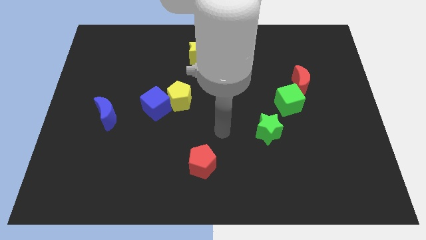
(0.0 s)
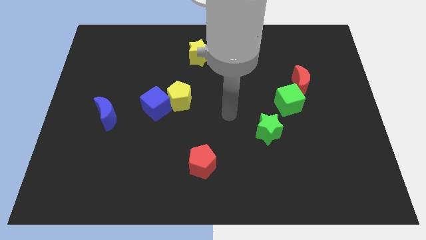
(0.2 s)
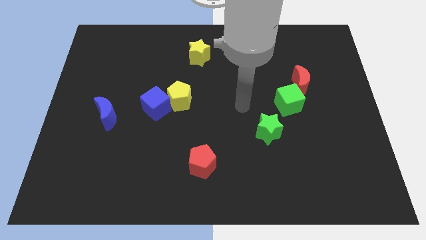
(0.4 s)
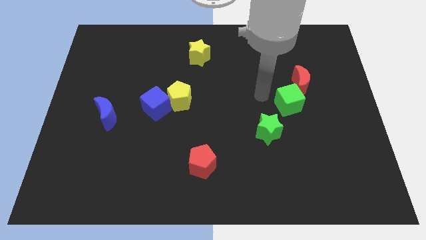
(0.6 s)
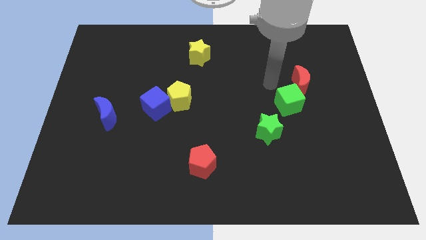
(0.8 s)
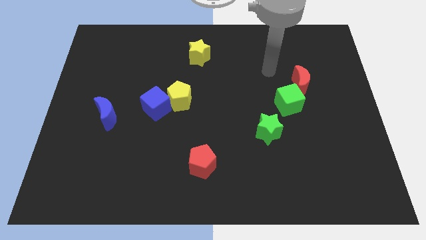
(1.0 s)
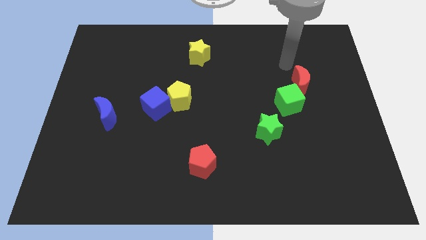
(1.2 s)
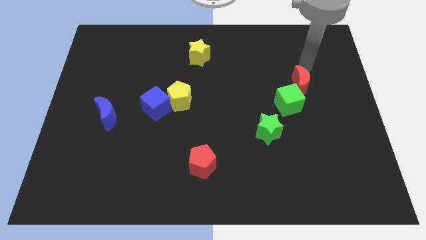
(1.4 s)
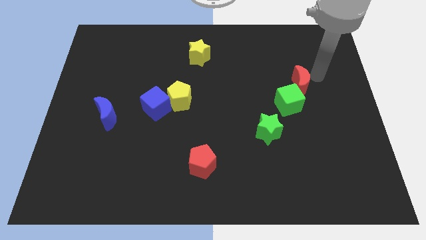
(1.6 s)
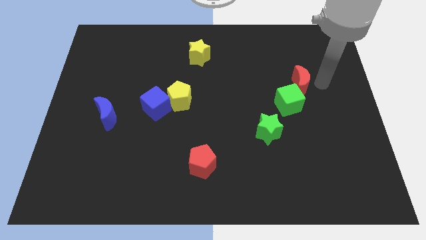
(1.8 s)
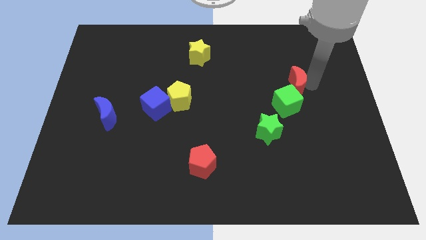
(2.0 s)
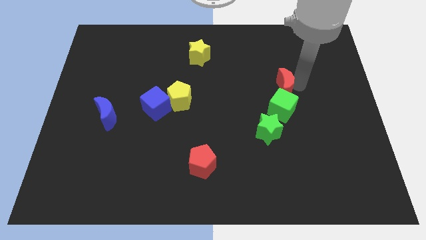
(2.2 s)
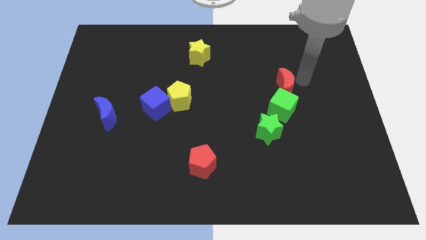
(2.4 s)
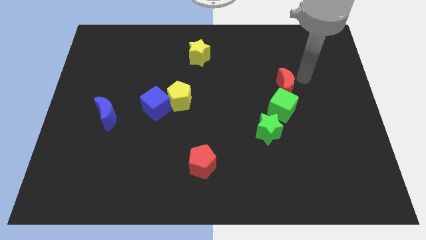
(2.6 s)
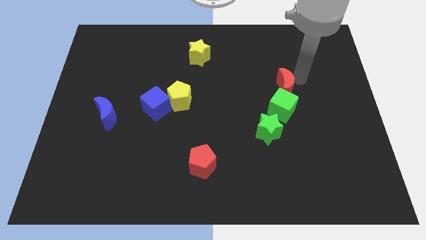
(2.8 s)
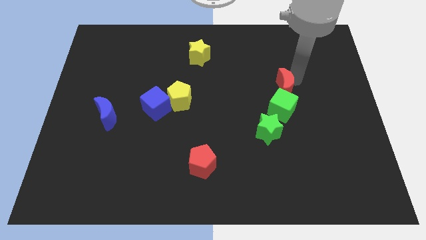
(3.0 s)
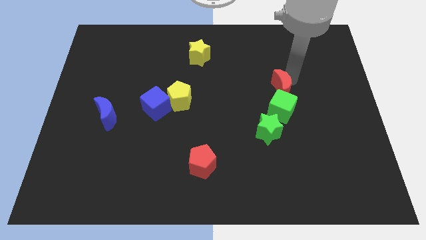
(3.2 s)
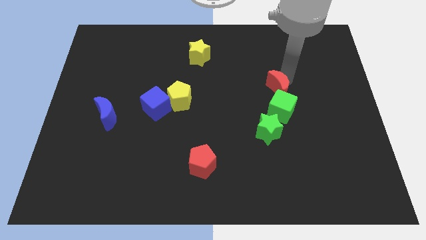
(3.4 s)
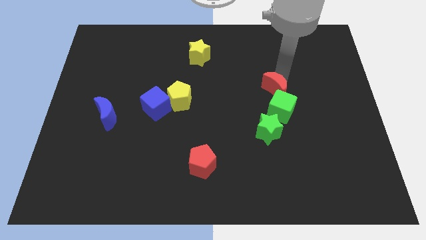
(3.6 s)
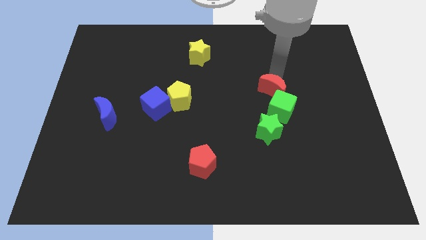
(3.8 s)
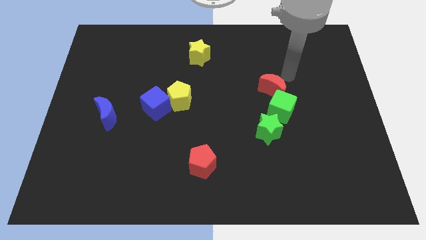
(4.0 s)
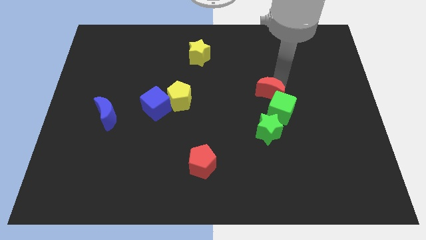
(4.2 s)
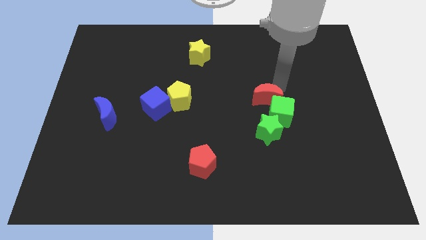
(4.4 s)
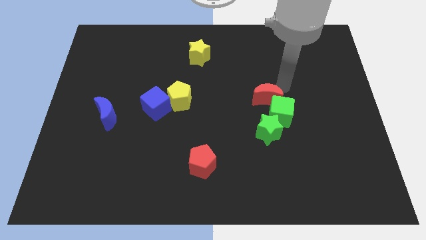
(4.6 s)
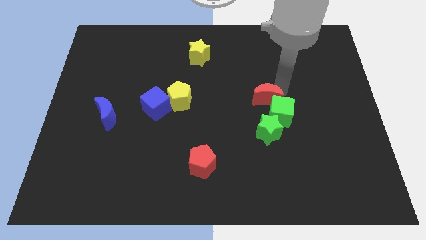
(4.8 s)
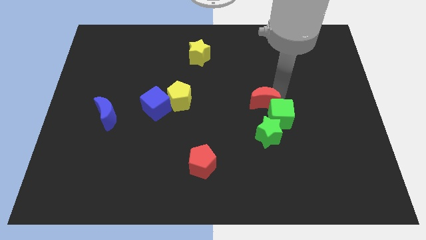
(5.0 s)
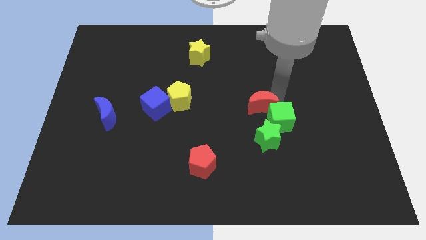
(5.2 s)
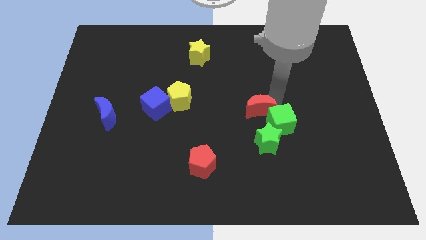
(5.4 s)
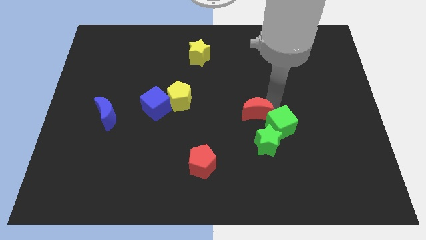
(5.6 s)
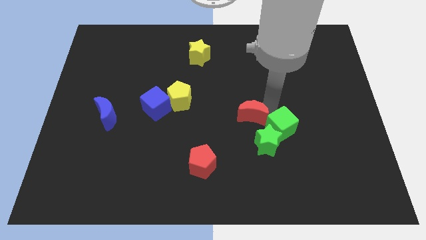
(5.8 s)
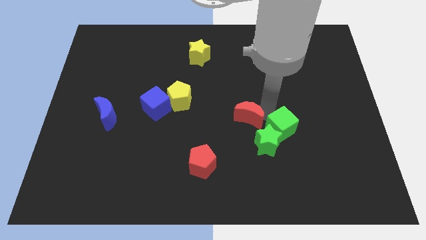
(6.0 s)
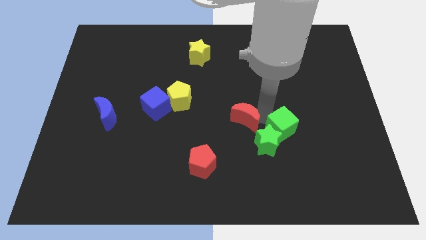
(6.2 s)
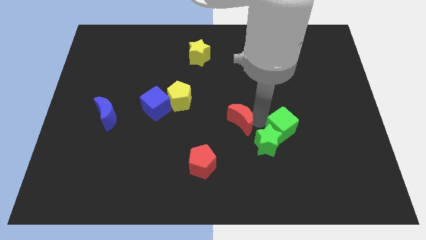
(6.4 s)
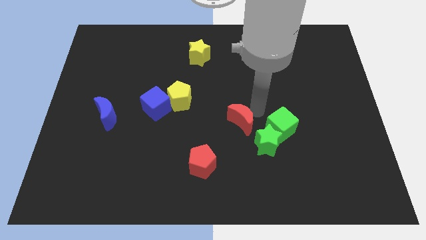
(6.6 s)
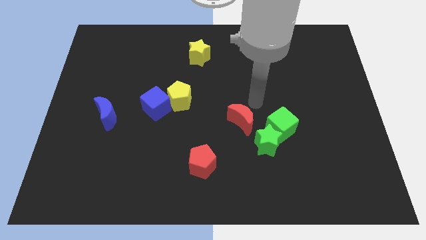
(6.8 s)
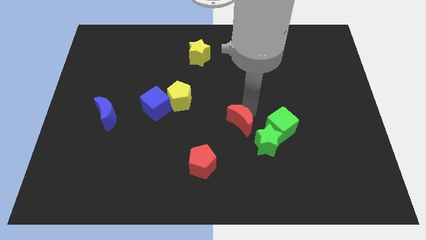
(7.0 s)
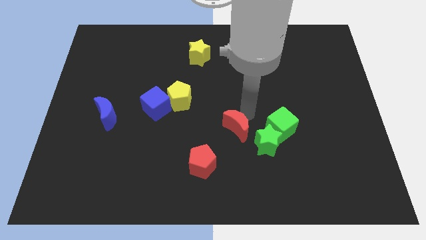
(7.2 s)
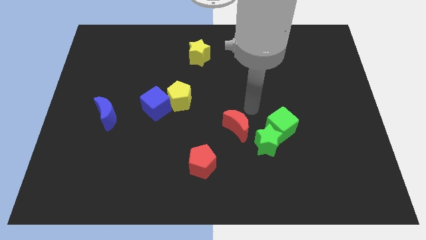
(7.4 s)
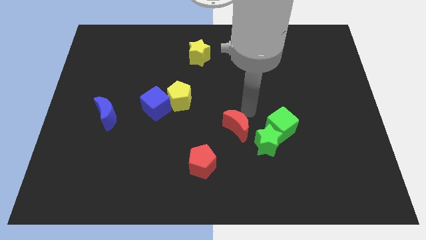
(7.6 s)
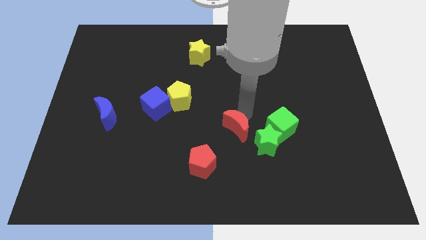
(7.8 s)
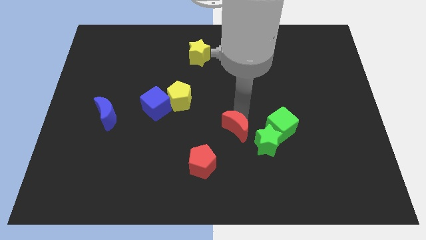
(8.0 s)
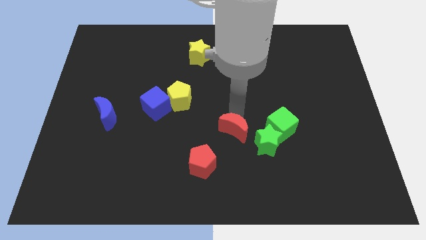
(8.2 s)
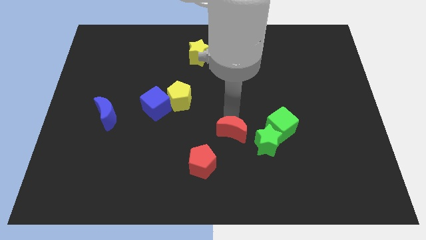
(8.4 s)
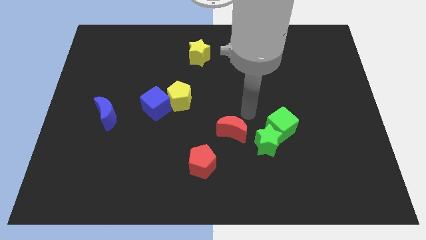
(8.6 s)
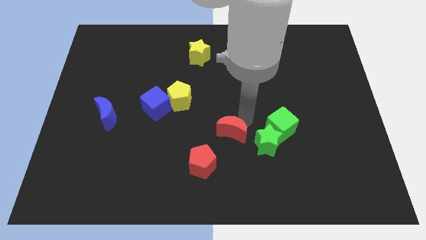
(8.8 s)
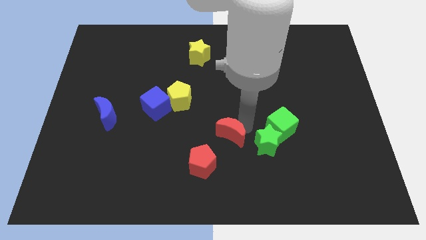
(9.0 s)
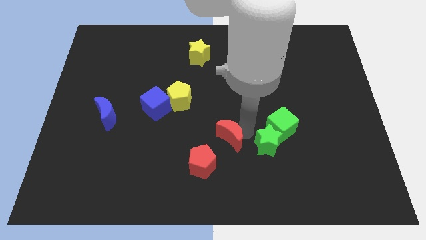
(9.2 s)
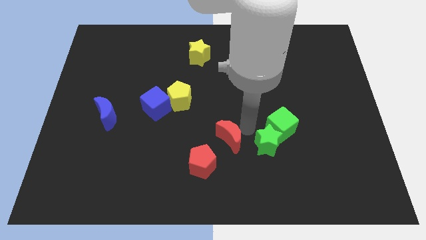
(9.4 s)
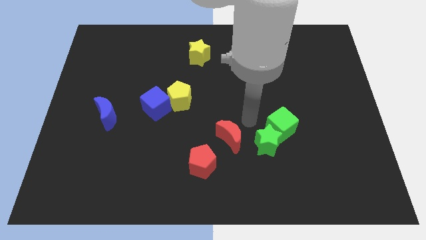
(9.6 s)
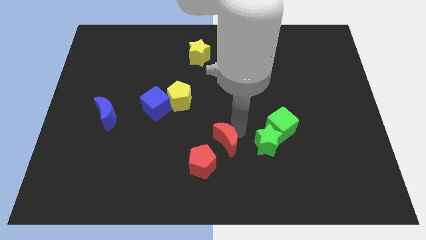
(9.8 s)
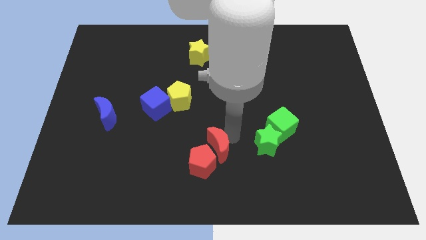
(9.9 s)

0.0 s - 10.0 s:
slide the red moon next to the red pentagon

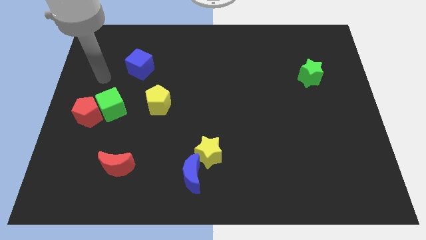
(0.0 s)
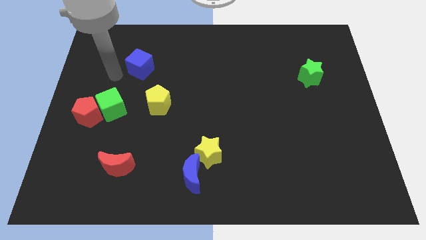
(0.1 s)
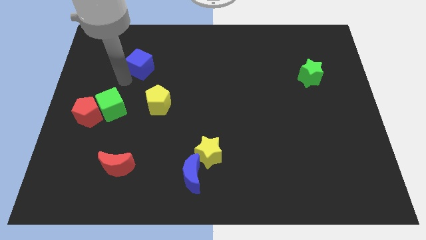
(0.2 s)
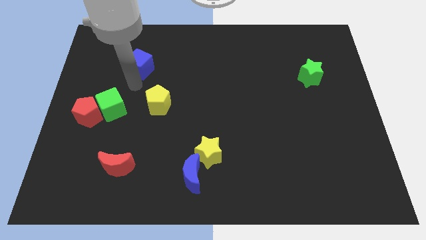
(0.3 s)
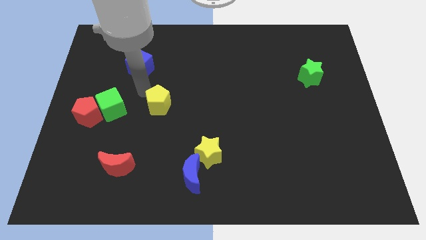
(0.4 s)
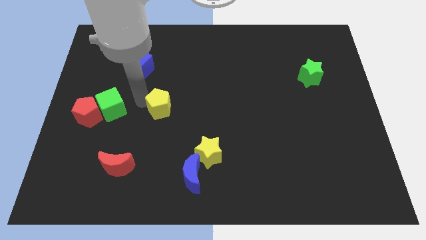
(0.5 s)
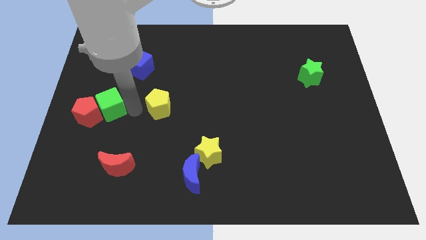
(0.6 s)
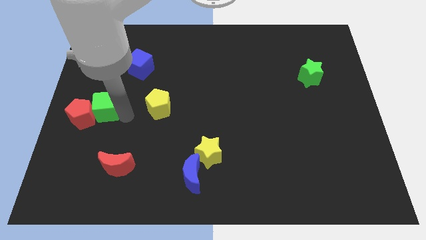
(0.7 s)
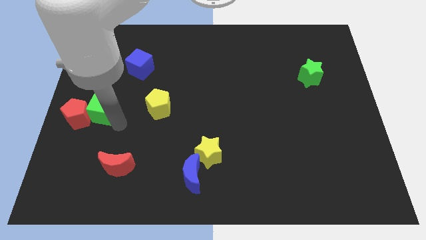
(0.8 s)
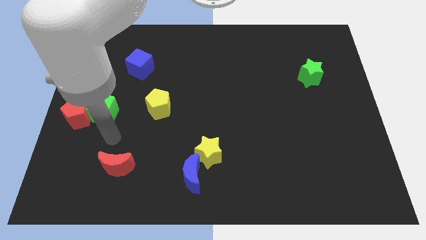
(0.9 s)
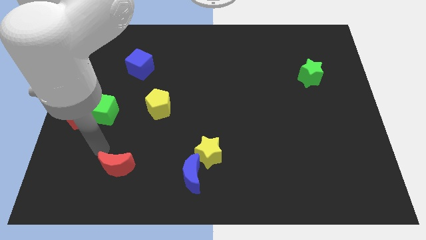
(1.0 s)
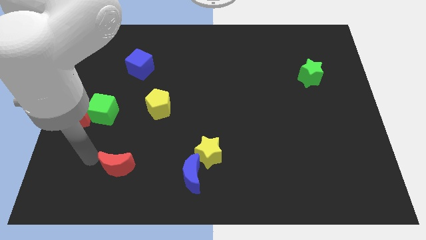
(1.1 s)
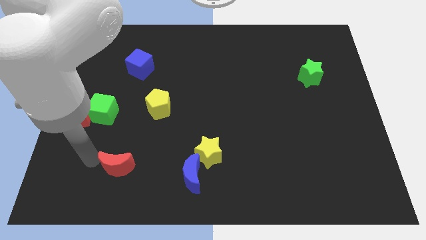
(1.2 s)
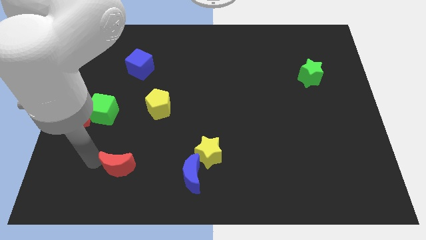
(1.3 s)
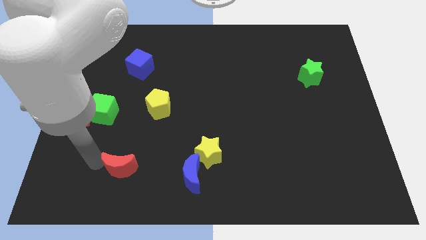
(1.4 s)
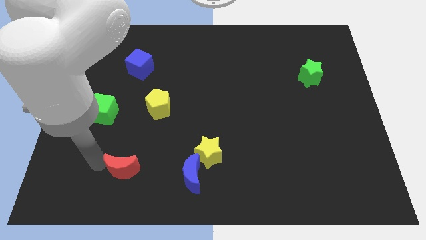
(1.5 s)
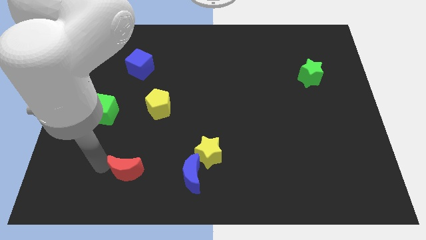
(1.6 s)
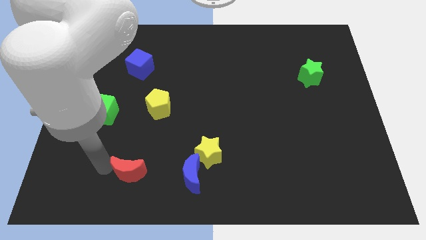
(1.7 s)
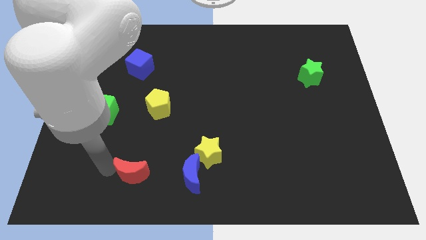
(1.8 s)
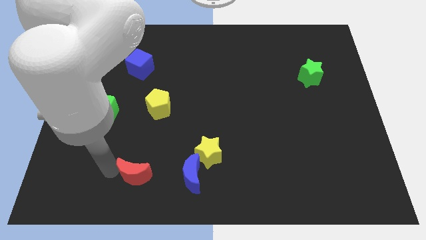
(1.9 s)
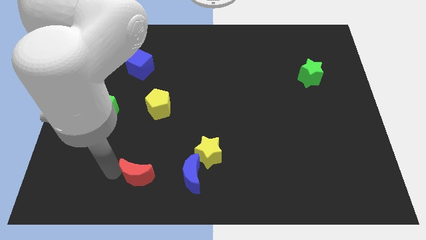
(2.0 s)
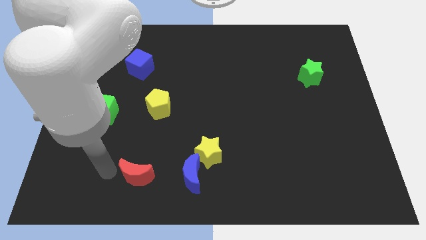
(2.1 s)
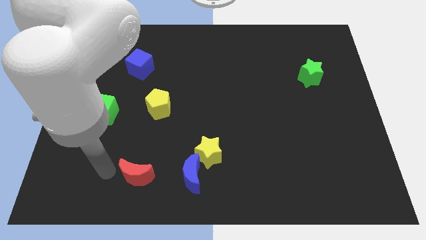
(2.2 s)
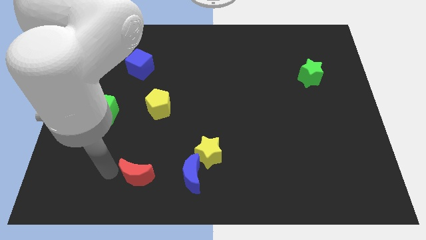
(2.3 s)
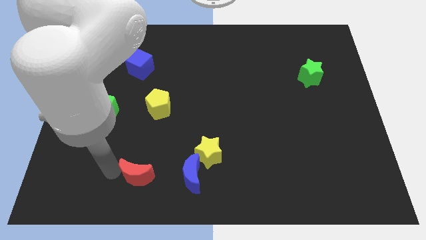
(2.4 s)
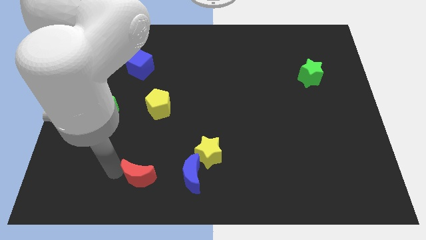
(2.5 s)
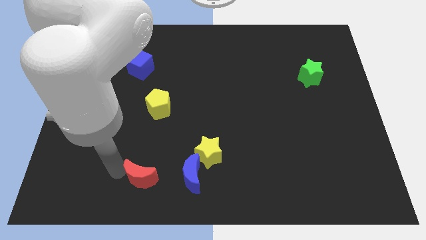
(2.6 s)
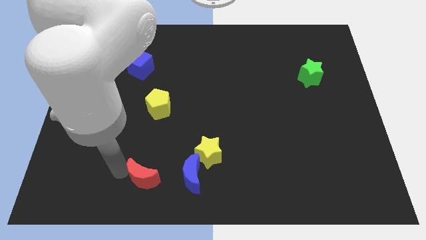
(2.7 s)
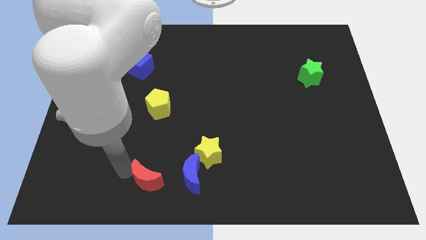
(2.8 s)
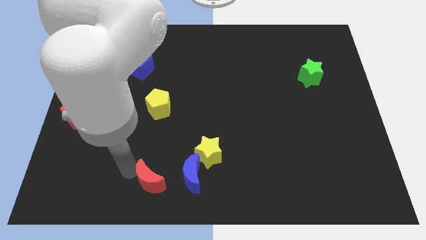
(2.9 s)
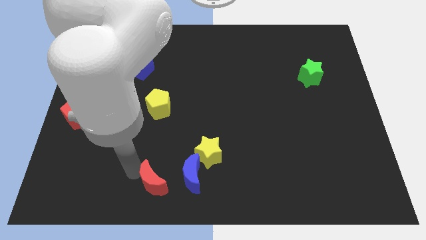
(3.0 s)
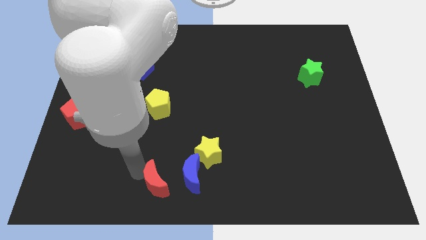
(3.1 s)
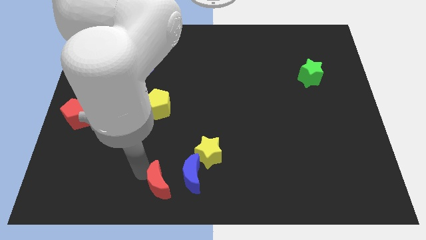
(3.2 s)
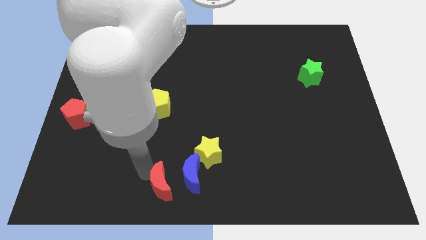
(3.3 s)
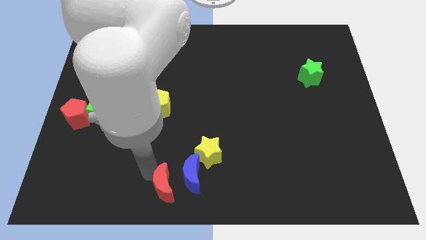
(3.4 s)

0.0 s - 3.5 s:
put the red moon next to the blue moon
